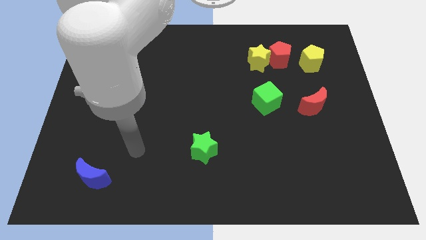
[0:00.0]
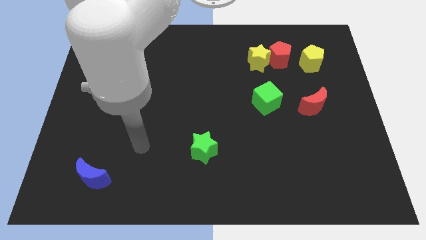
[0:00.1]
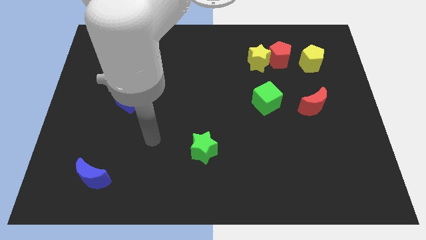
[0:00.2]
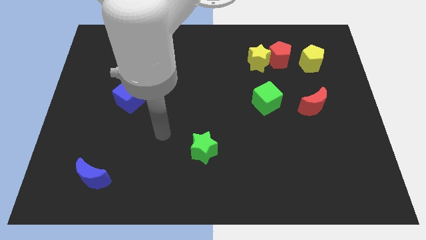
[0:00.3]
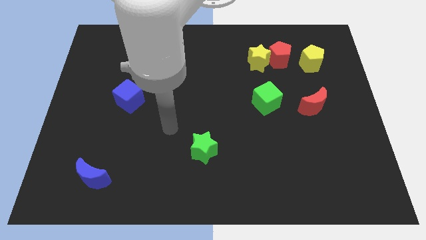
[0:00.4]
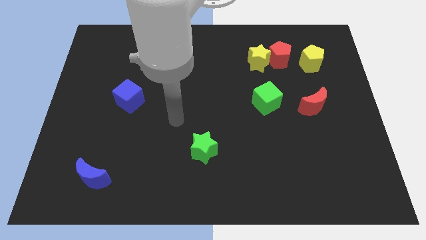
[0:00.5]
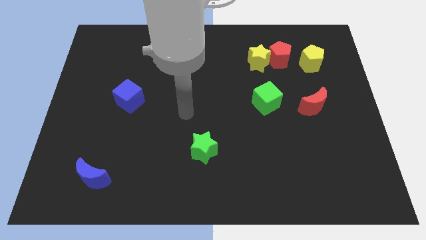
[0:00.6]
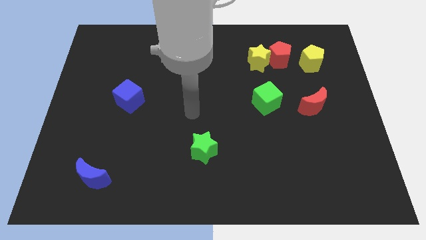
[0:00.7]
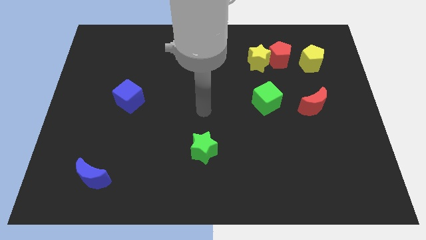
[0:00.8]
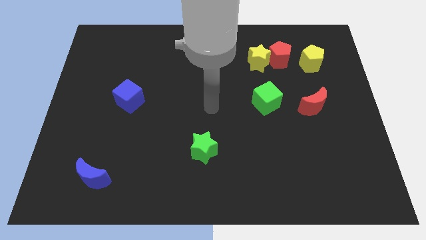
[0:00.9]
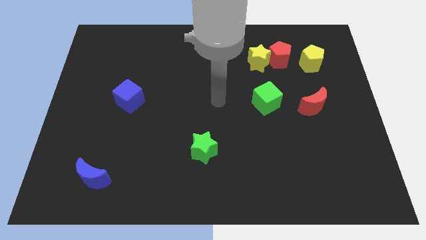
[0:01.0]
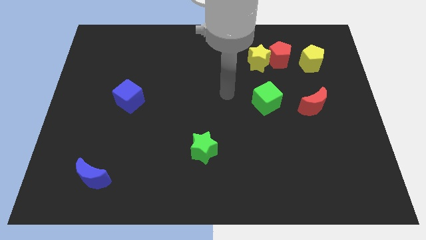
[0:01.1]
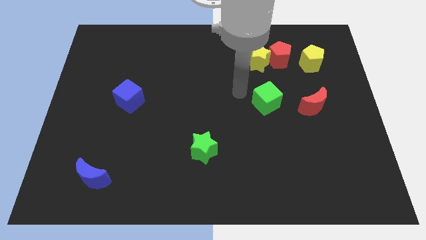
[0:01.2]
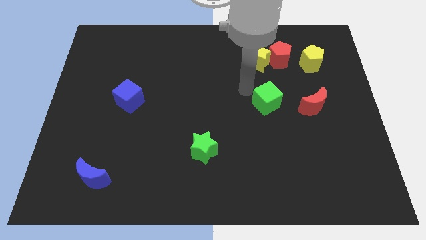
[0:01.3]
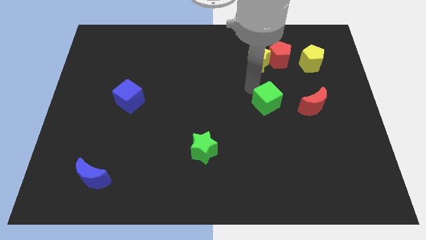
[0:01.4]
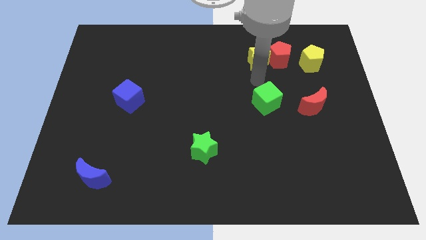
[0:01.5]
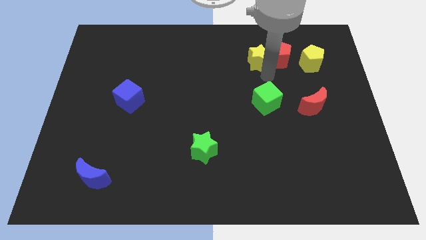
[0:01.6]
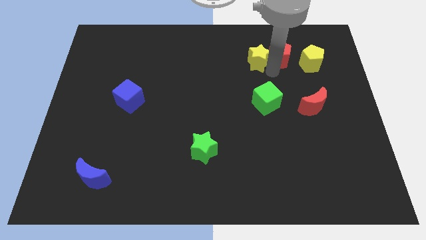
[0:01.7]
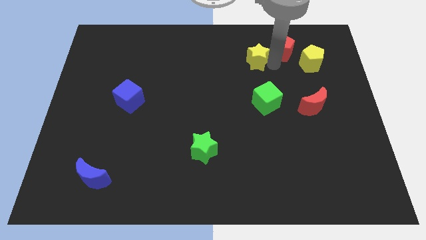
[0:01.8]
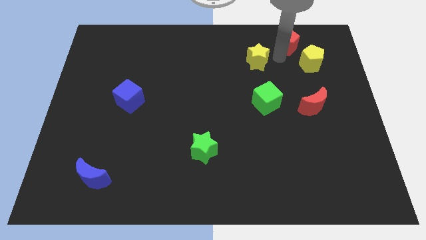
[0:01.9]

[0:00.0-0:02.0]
move the yellow star away from the red pentagon

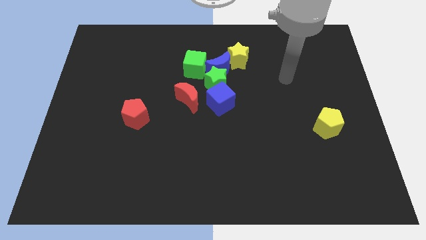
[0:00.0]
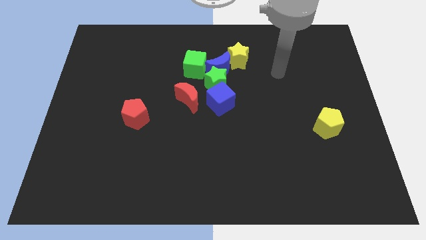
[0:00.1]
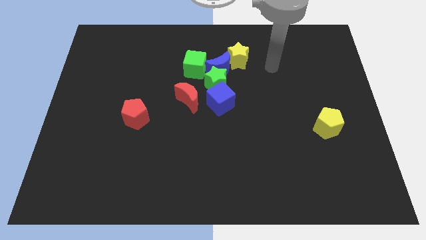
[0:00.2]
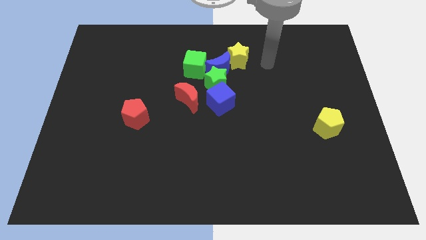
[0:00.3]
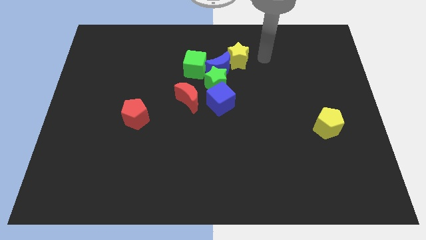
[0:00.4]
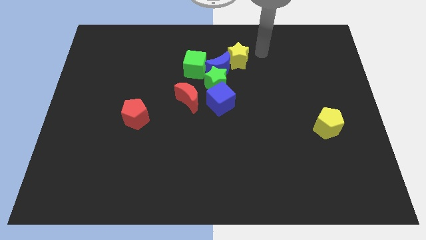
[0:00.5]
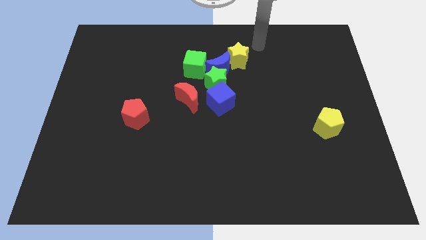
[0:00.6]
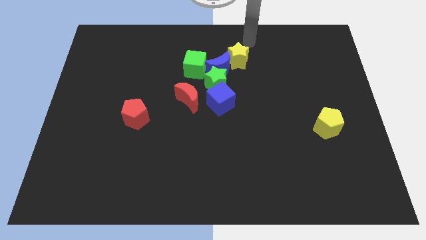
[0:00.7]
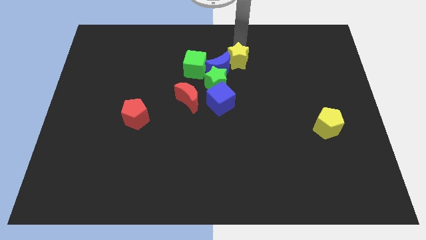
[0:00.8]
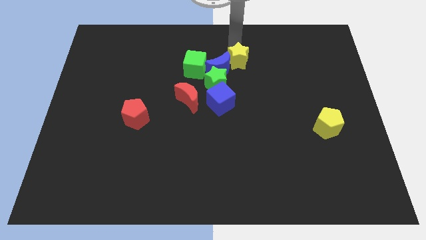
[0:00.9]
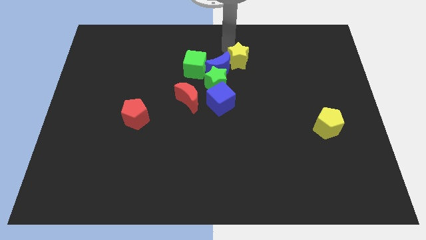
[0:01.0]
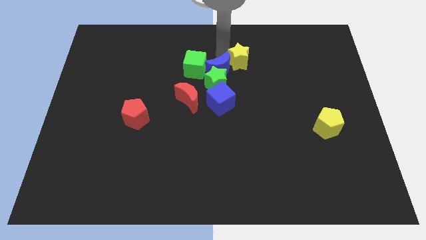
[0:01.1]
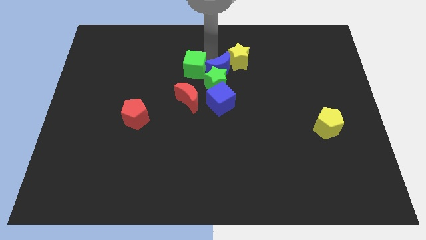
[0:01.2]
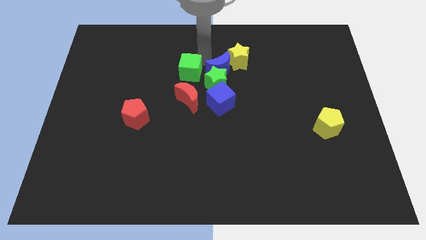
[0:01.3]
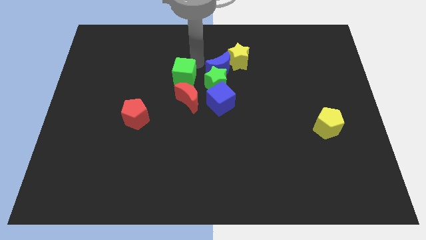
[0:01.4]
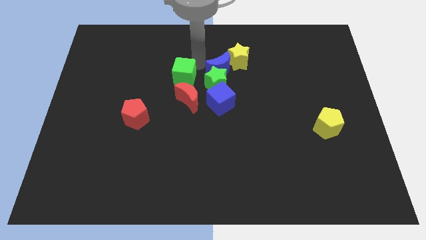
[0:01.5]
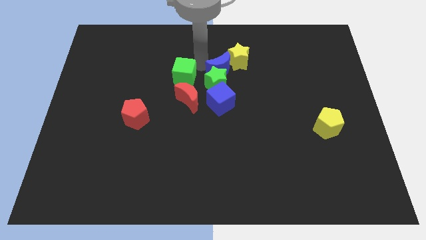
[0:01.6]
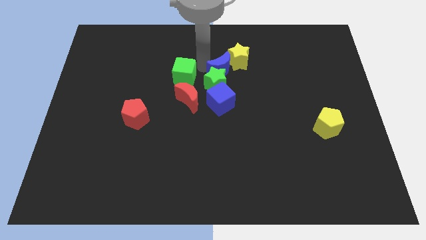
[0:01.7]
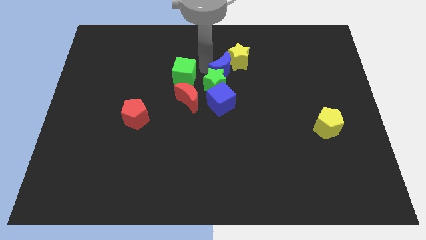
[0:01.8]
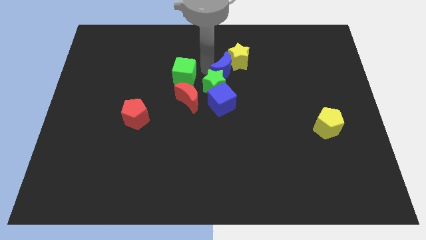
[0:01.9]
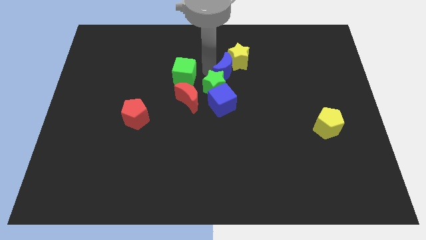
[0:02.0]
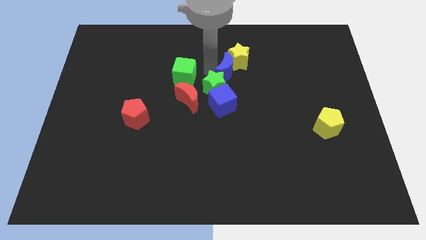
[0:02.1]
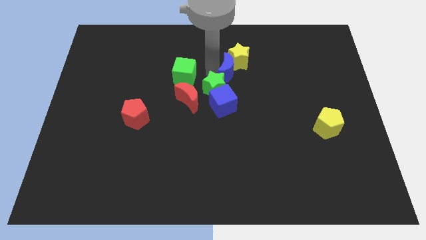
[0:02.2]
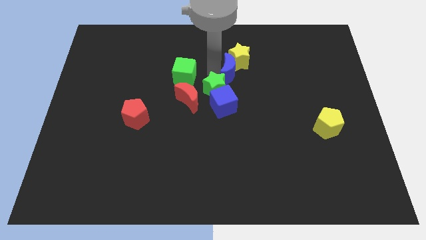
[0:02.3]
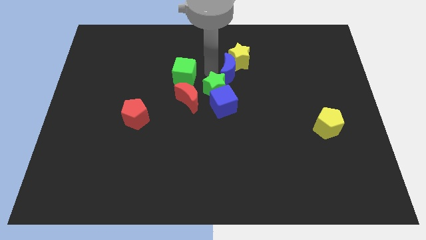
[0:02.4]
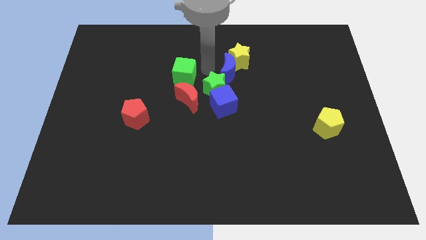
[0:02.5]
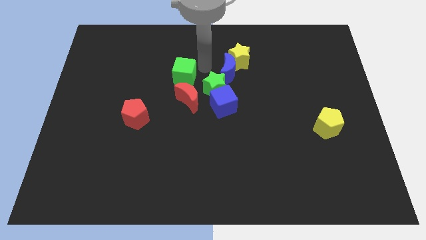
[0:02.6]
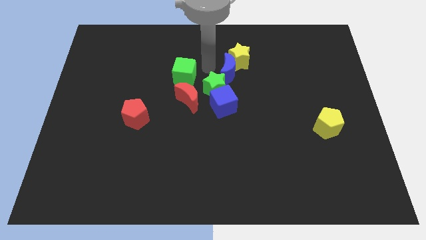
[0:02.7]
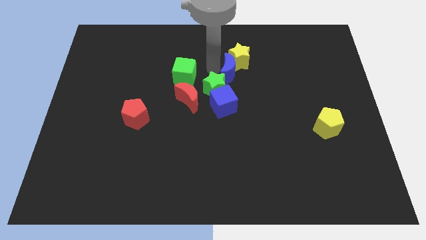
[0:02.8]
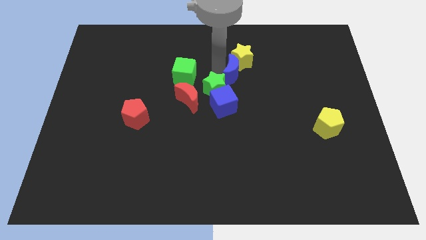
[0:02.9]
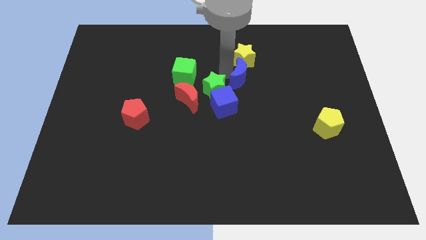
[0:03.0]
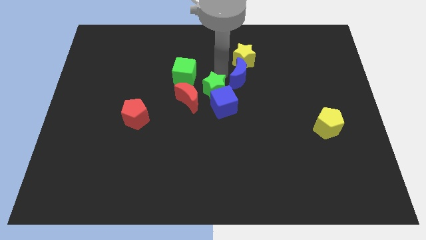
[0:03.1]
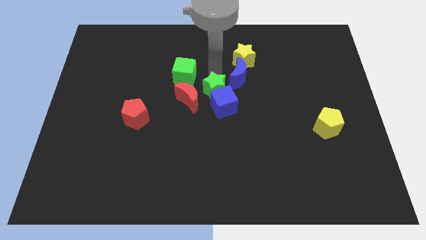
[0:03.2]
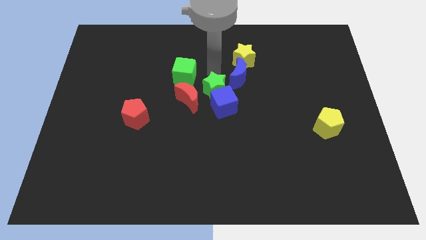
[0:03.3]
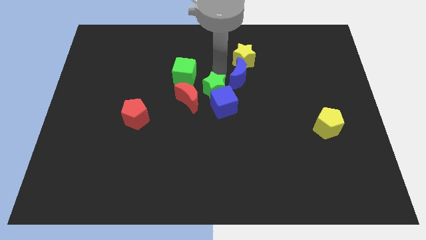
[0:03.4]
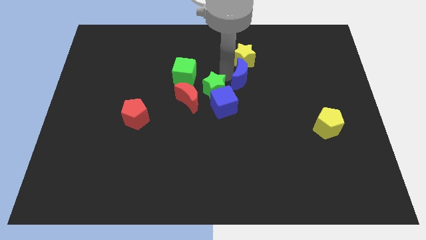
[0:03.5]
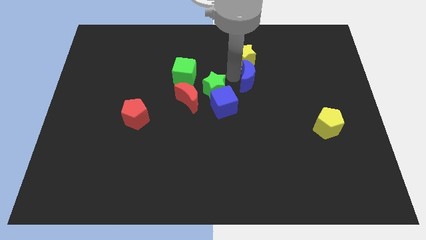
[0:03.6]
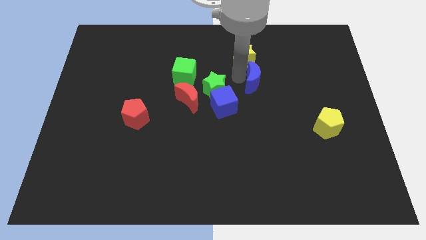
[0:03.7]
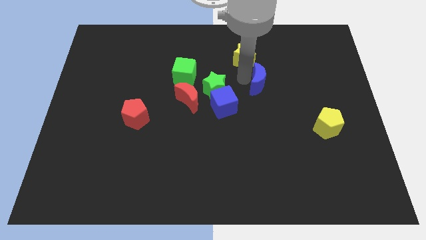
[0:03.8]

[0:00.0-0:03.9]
pull the blue moon apart from the green star, yellow star, and green cube

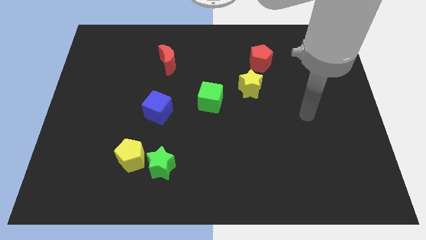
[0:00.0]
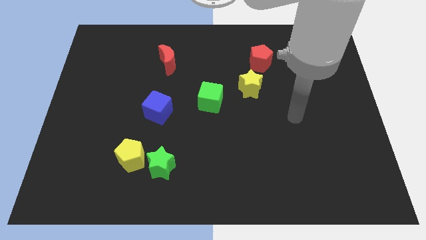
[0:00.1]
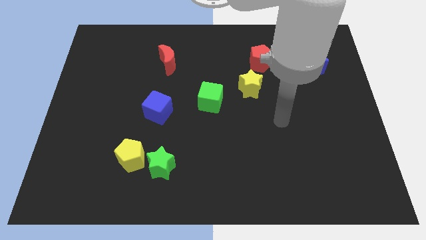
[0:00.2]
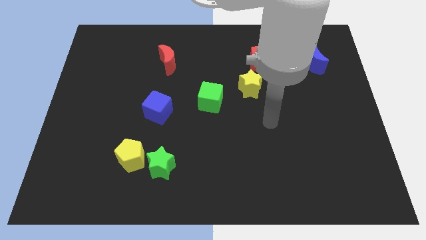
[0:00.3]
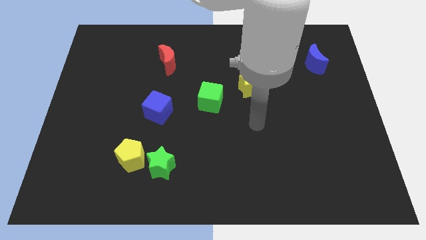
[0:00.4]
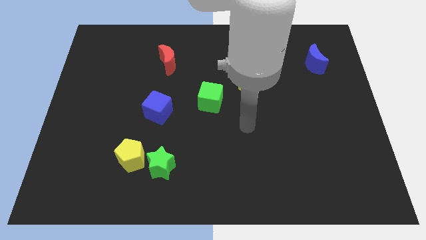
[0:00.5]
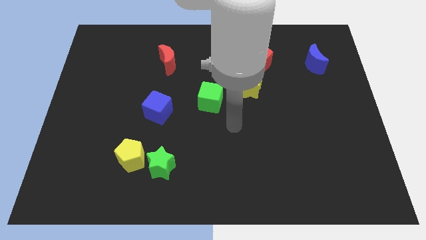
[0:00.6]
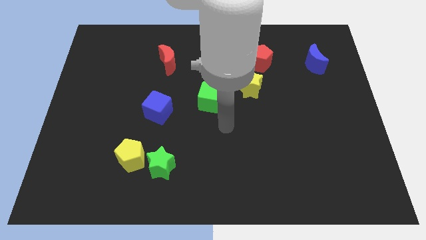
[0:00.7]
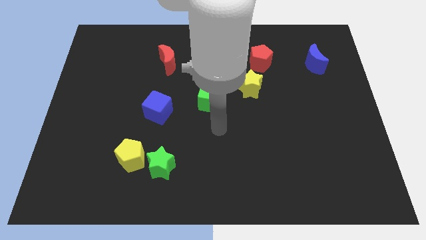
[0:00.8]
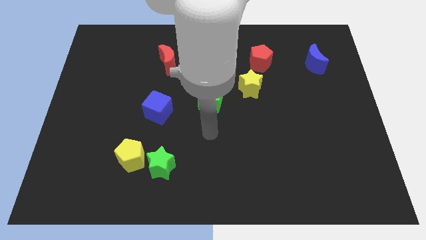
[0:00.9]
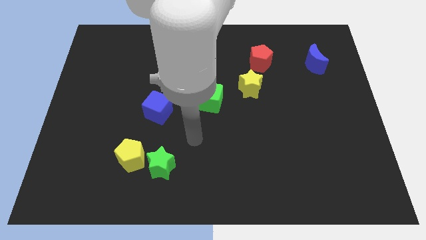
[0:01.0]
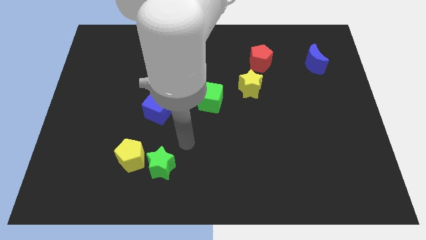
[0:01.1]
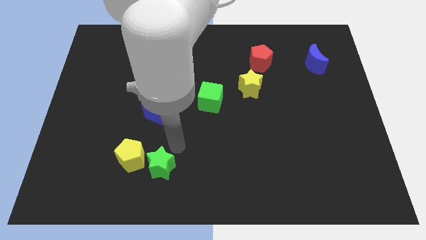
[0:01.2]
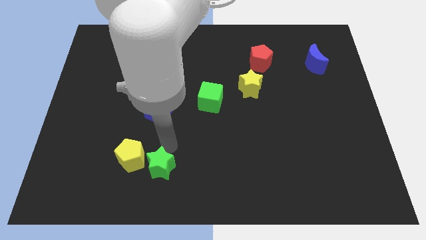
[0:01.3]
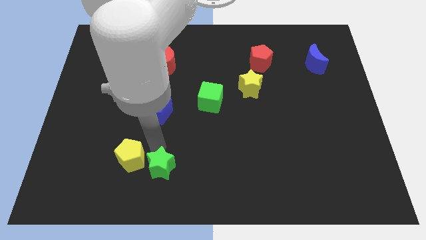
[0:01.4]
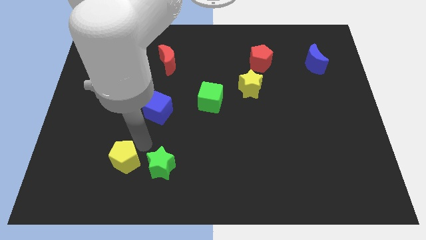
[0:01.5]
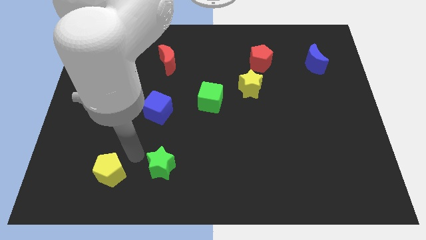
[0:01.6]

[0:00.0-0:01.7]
move the green star away from the yellow pentagon

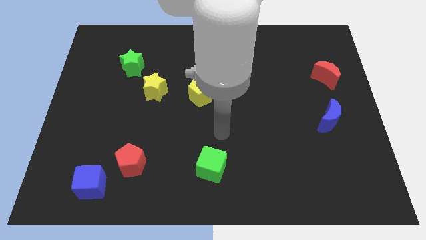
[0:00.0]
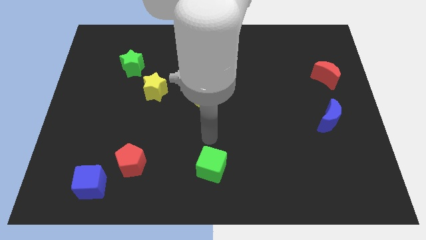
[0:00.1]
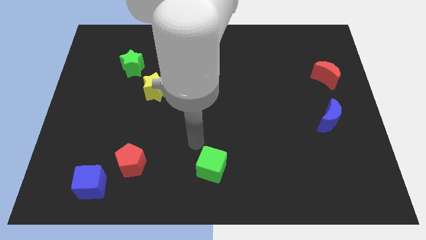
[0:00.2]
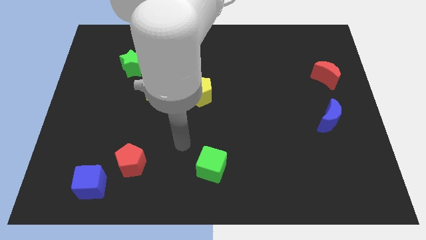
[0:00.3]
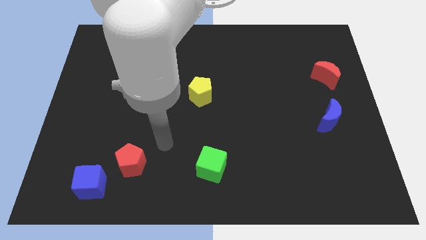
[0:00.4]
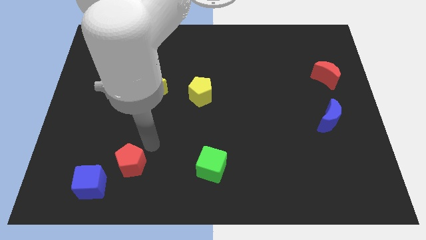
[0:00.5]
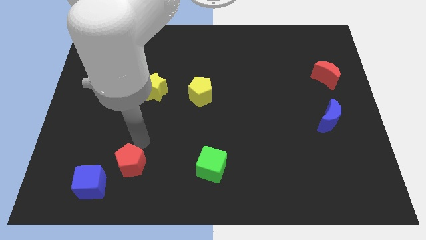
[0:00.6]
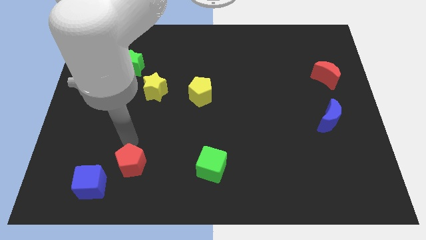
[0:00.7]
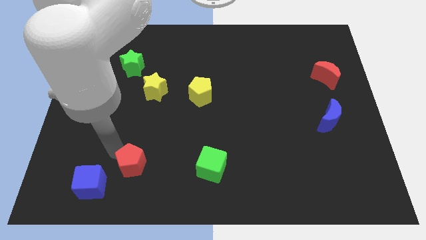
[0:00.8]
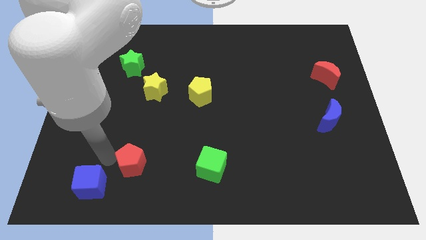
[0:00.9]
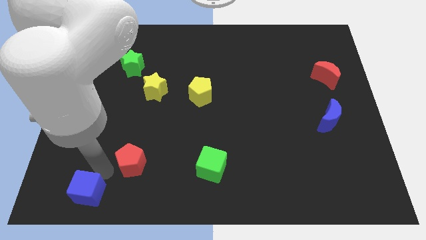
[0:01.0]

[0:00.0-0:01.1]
pull the red pentagon apart from the blue cube

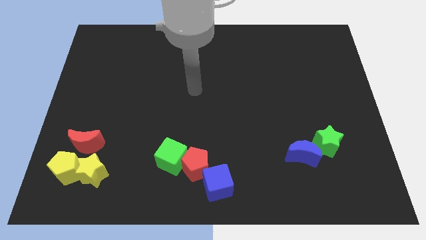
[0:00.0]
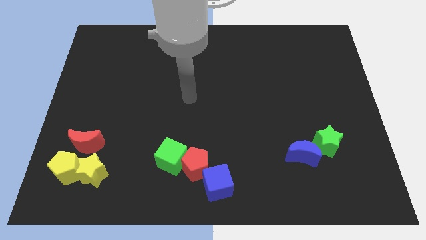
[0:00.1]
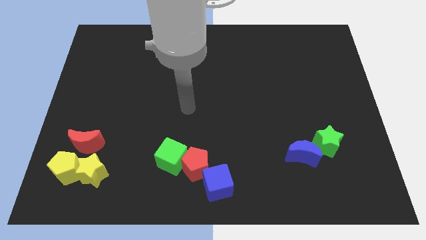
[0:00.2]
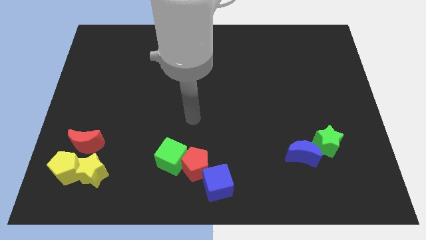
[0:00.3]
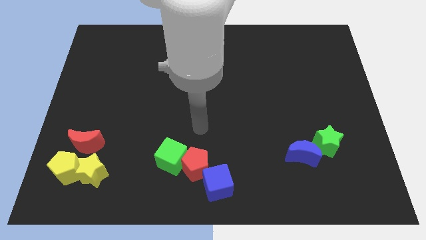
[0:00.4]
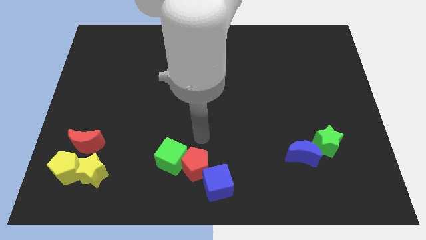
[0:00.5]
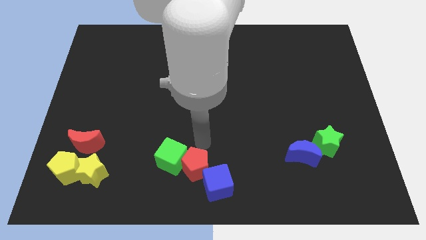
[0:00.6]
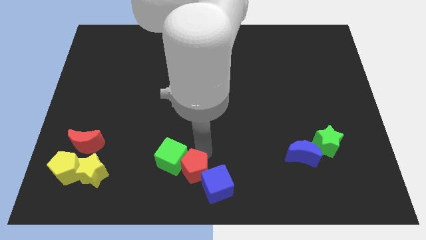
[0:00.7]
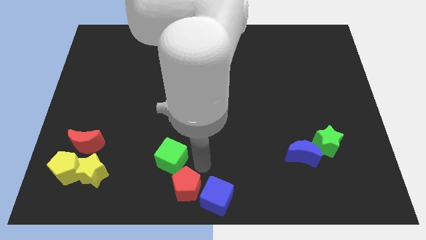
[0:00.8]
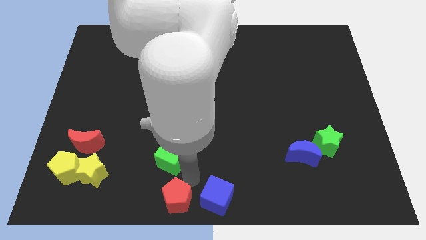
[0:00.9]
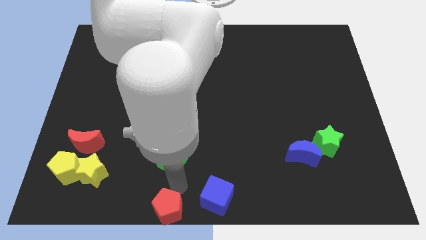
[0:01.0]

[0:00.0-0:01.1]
move the green cube away from the red pentagon
